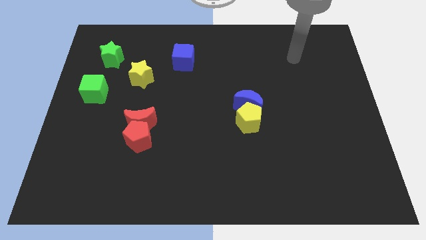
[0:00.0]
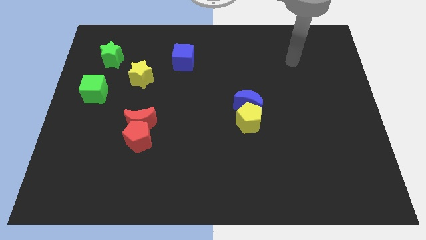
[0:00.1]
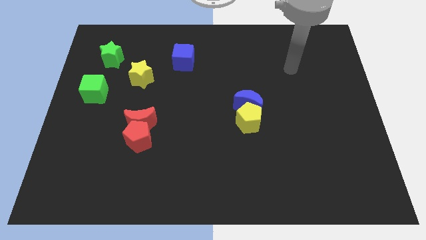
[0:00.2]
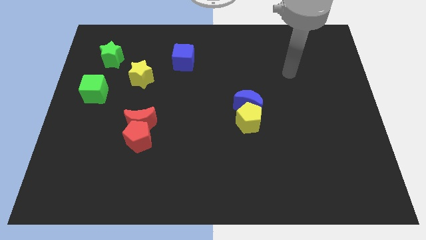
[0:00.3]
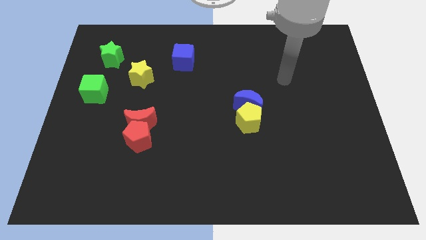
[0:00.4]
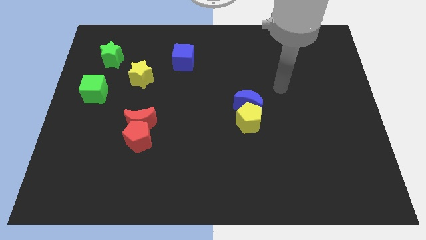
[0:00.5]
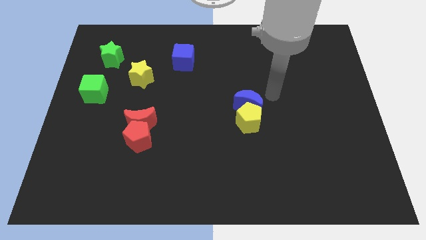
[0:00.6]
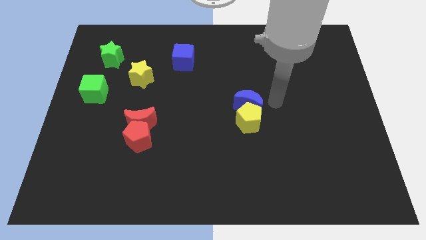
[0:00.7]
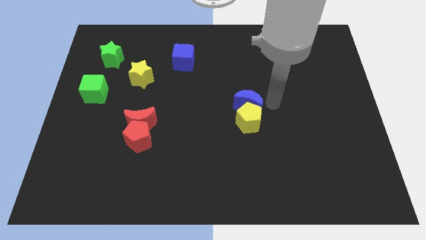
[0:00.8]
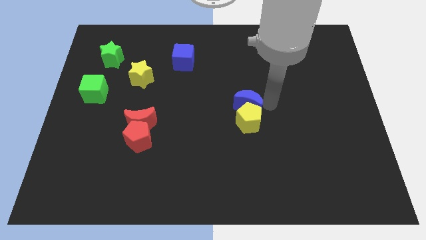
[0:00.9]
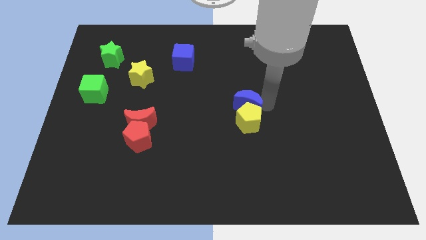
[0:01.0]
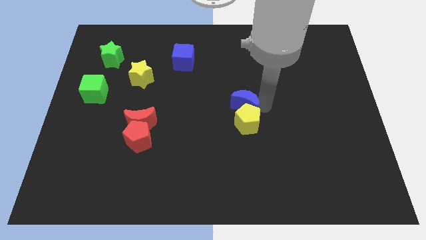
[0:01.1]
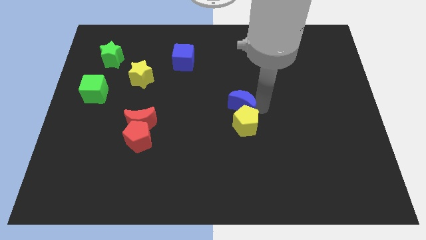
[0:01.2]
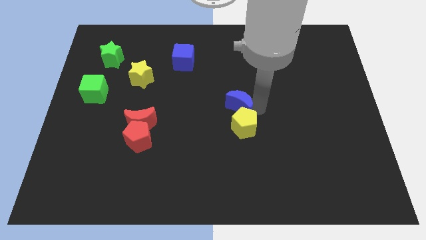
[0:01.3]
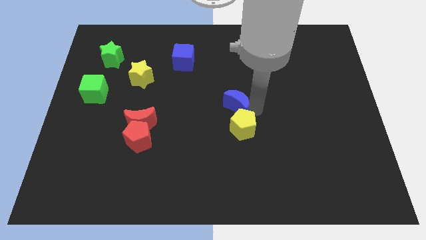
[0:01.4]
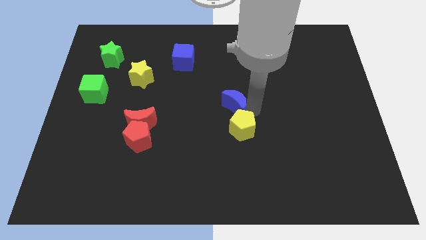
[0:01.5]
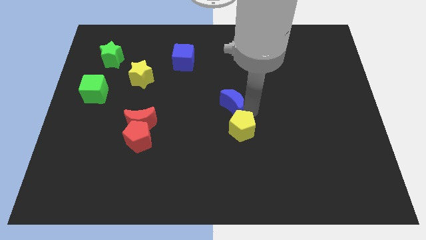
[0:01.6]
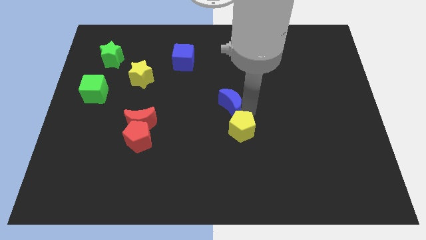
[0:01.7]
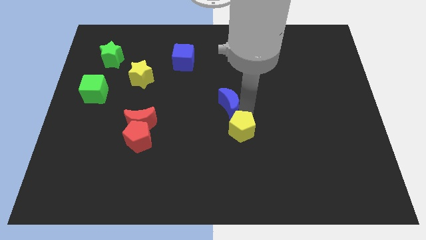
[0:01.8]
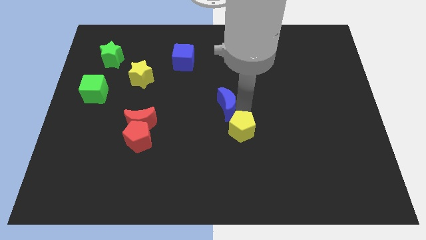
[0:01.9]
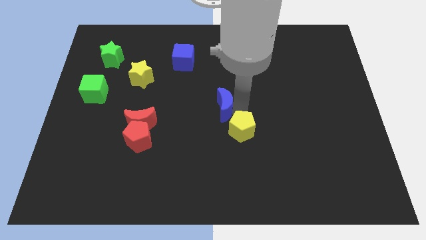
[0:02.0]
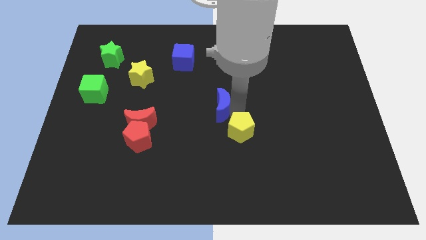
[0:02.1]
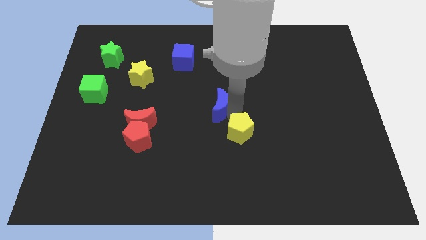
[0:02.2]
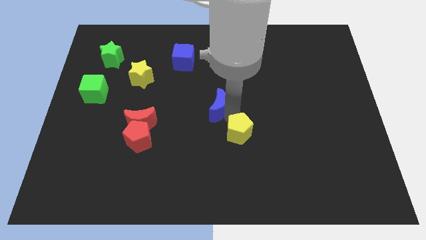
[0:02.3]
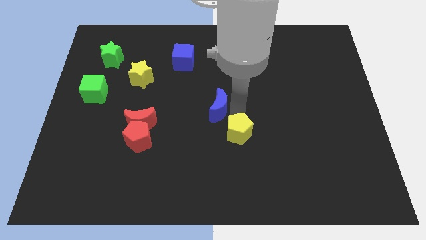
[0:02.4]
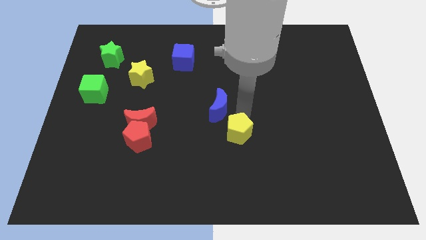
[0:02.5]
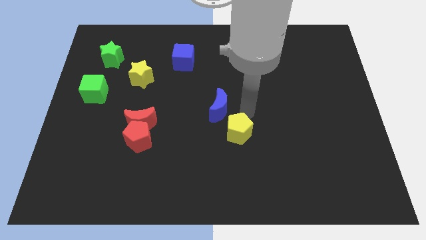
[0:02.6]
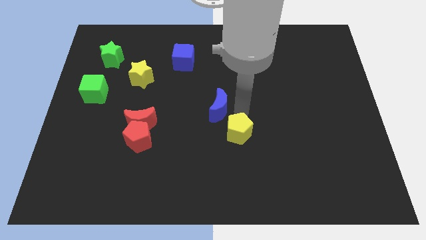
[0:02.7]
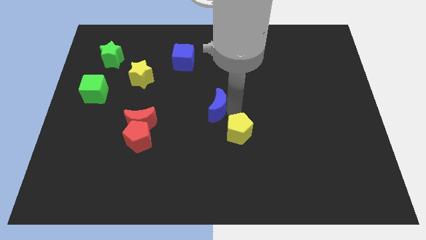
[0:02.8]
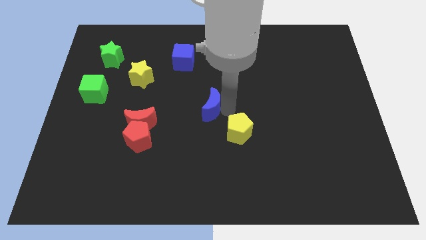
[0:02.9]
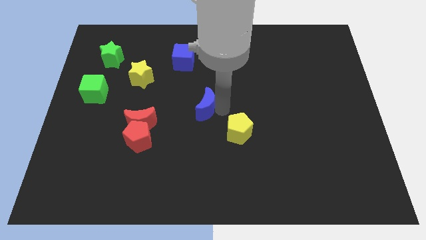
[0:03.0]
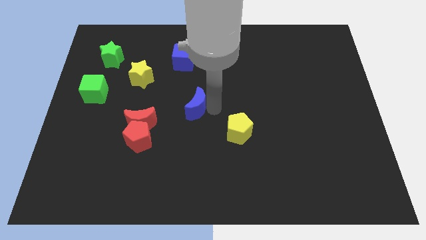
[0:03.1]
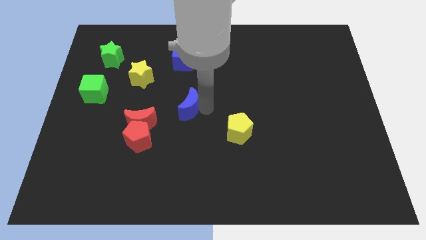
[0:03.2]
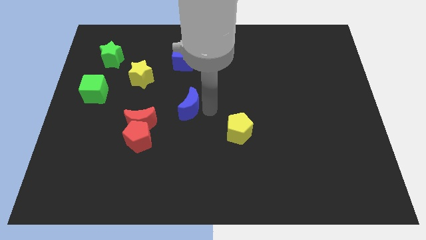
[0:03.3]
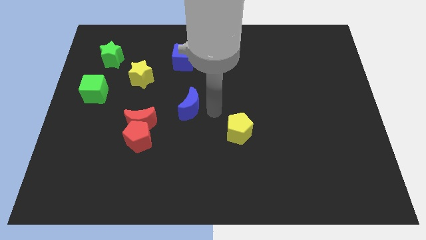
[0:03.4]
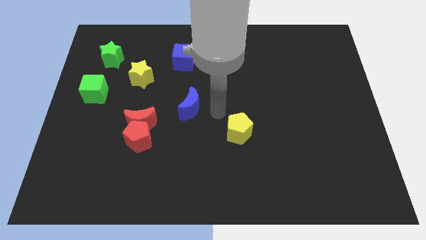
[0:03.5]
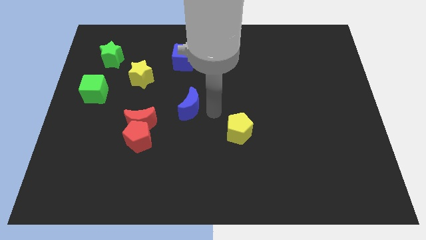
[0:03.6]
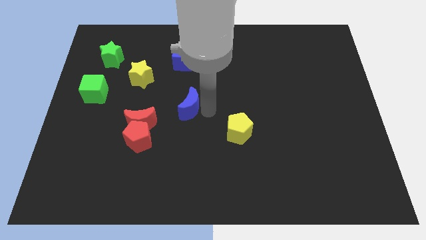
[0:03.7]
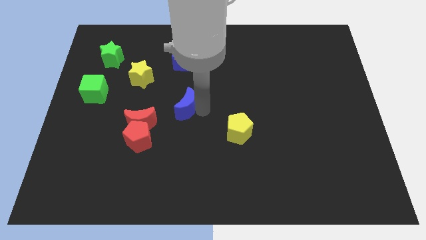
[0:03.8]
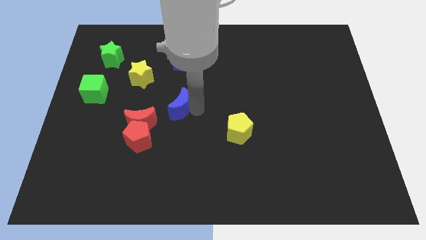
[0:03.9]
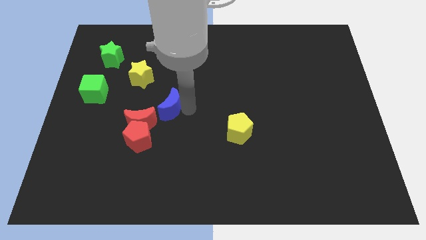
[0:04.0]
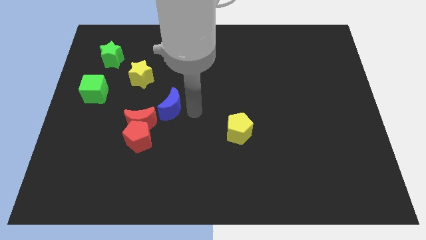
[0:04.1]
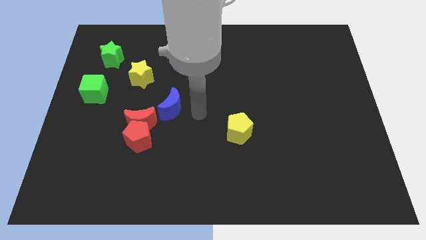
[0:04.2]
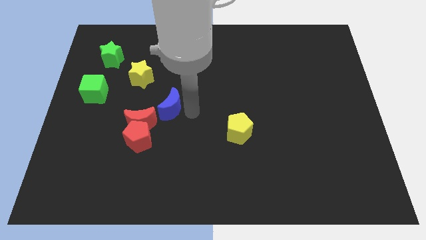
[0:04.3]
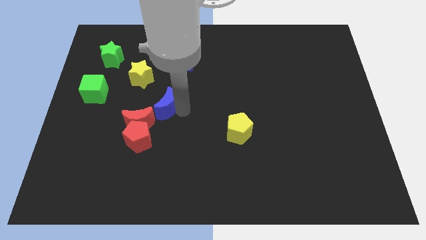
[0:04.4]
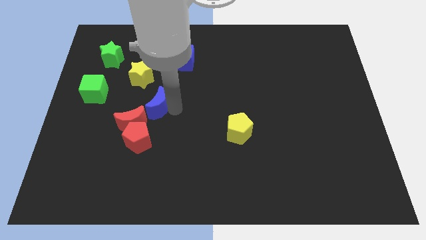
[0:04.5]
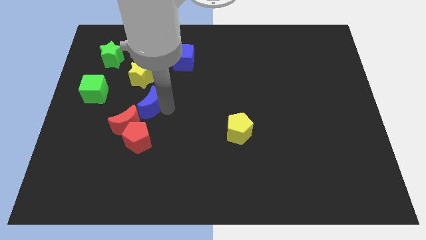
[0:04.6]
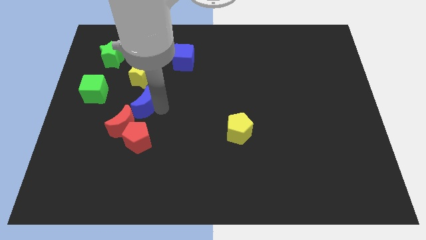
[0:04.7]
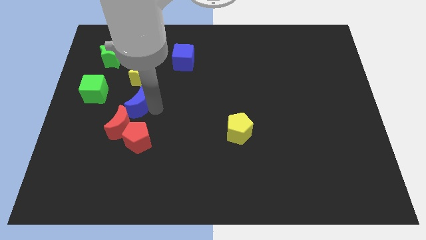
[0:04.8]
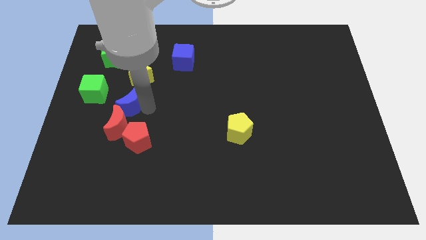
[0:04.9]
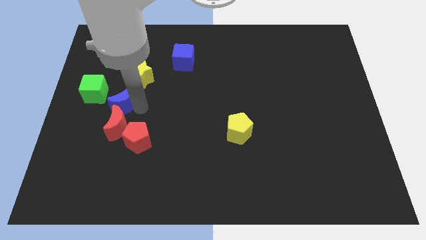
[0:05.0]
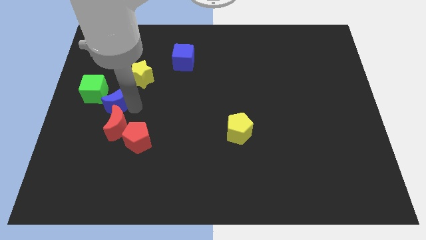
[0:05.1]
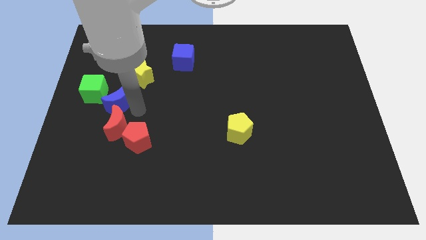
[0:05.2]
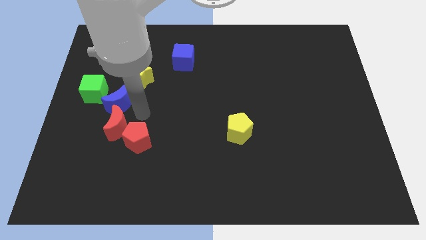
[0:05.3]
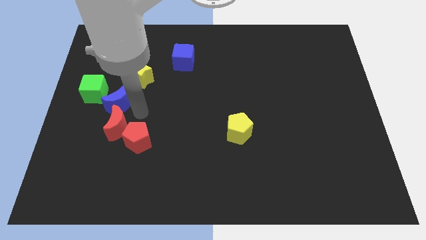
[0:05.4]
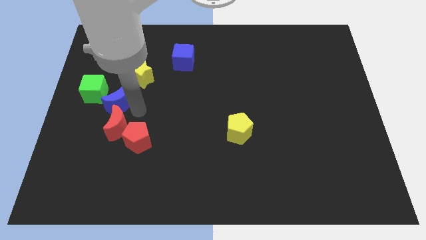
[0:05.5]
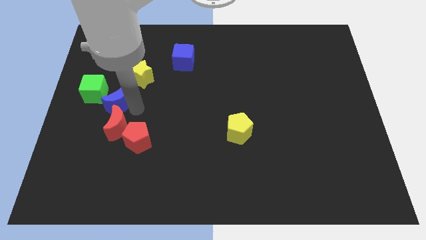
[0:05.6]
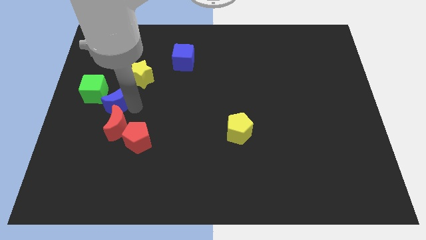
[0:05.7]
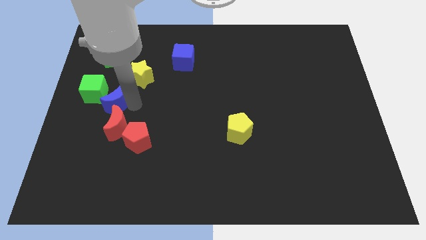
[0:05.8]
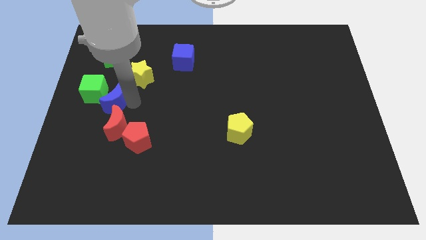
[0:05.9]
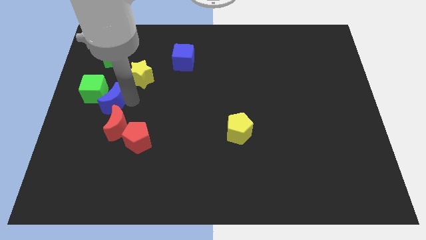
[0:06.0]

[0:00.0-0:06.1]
move the blue moon next to the green cube

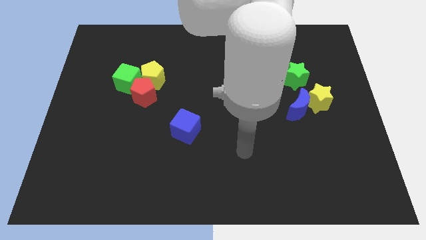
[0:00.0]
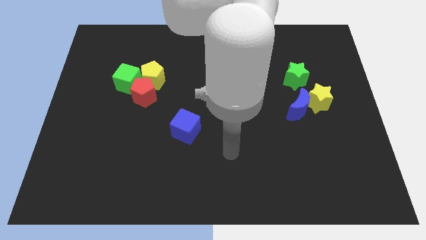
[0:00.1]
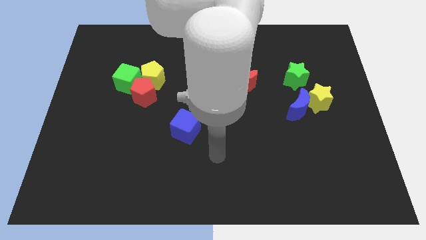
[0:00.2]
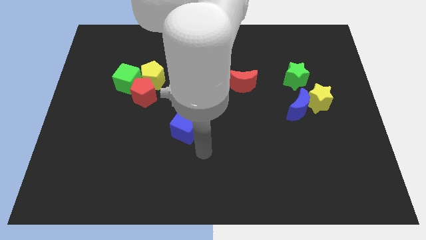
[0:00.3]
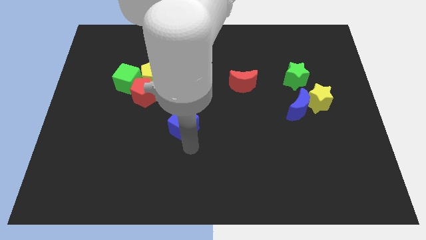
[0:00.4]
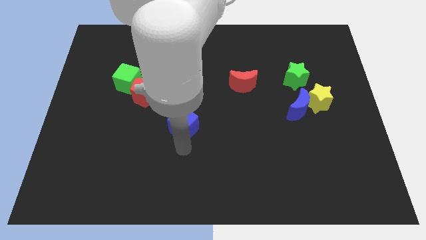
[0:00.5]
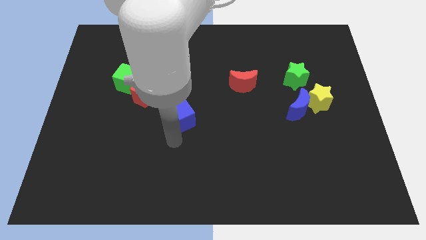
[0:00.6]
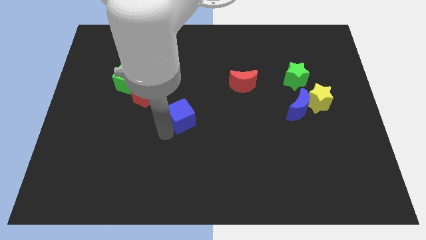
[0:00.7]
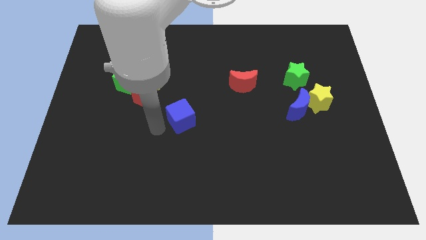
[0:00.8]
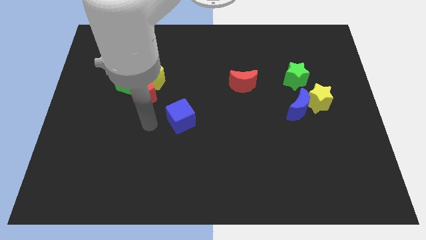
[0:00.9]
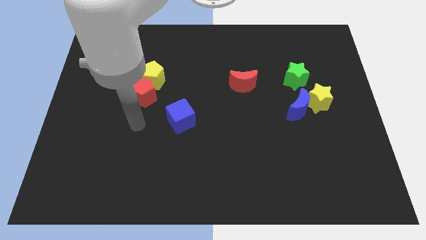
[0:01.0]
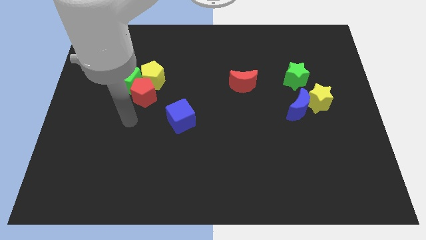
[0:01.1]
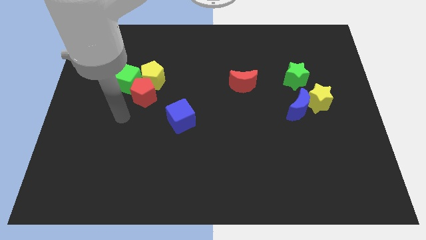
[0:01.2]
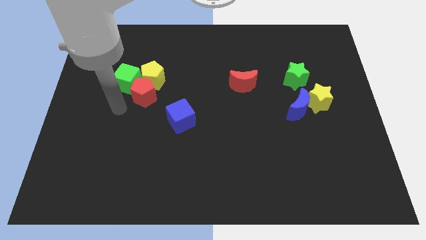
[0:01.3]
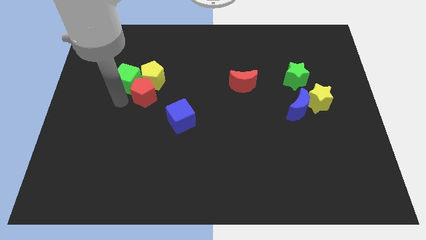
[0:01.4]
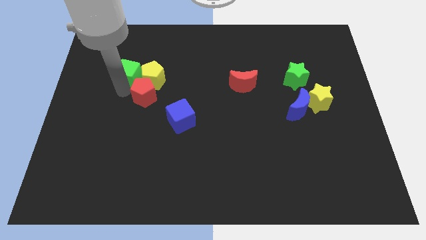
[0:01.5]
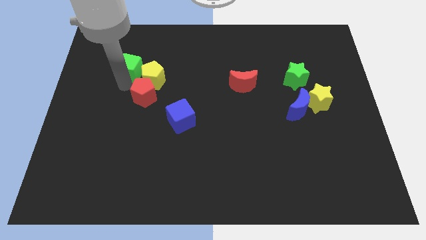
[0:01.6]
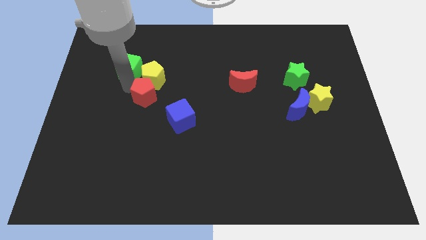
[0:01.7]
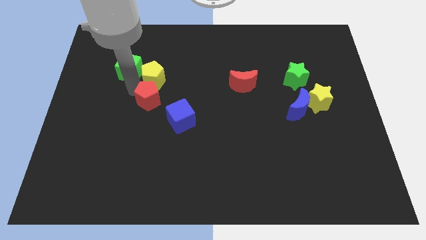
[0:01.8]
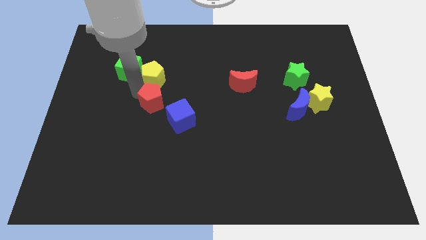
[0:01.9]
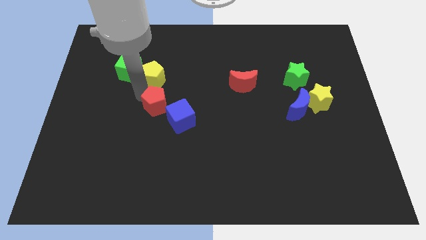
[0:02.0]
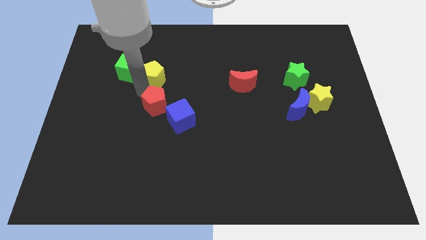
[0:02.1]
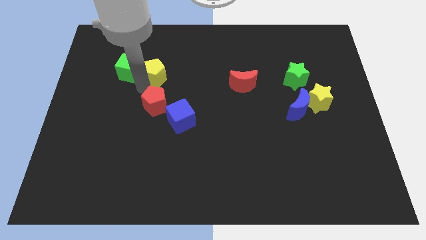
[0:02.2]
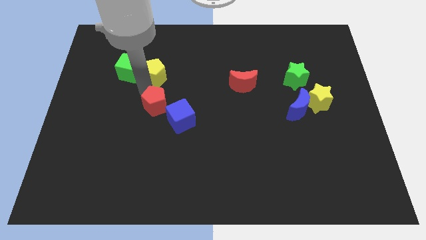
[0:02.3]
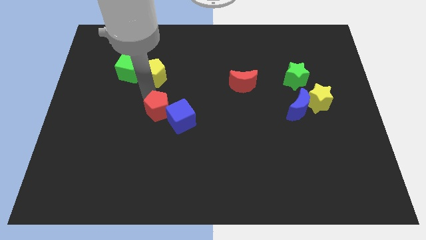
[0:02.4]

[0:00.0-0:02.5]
move the red pentagon to the blue cube
